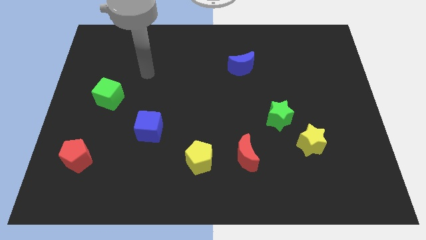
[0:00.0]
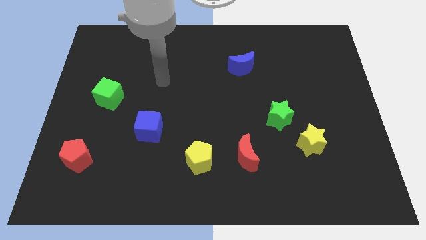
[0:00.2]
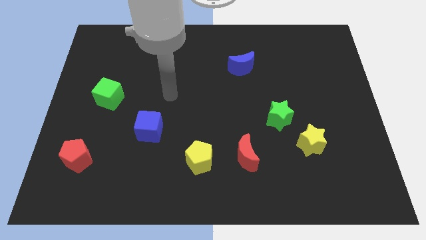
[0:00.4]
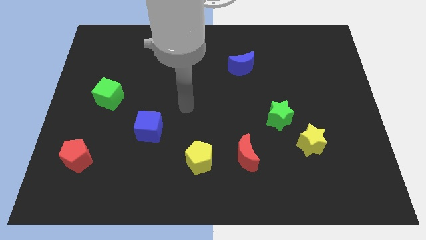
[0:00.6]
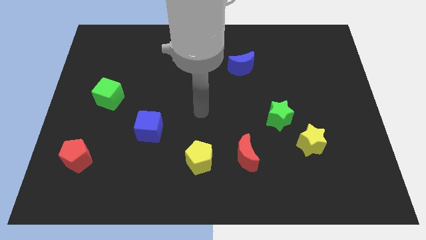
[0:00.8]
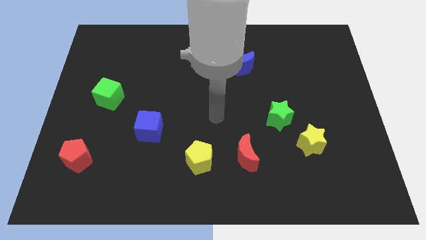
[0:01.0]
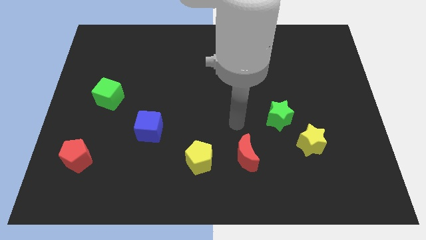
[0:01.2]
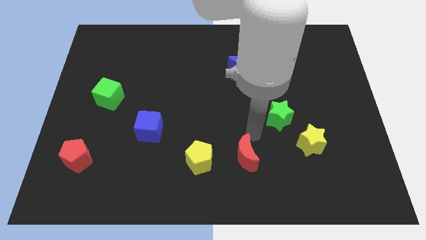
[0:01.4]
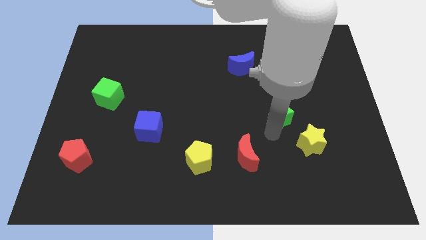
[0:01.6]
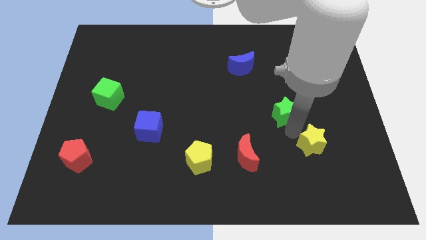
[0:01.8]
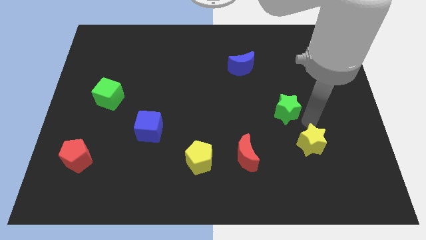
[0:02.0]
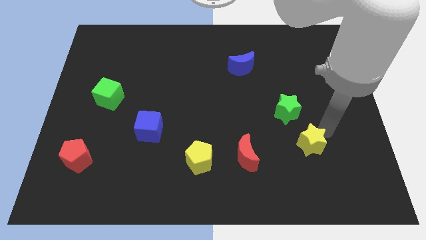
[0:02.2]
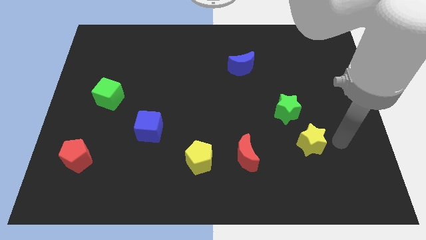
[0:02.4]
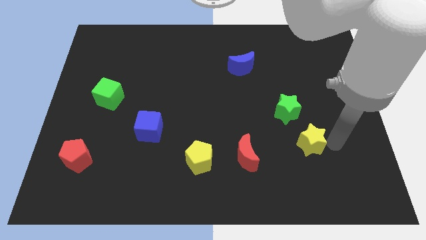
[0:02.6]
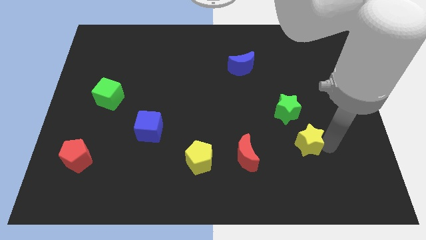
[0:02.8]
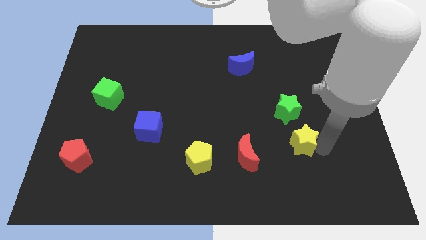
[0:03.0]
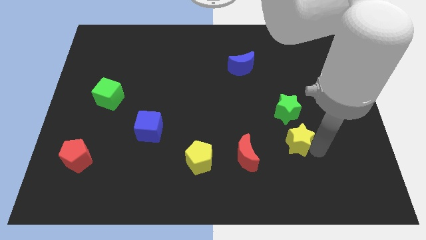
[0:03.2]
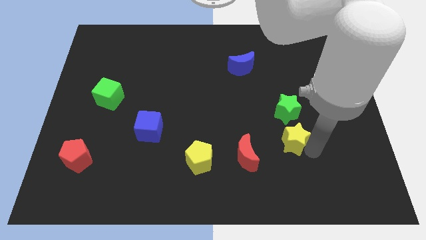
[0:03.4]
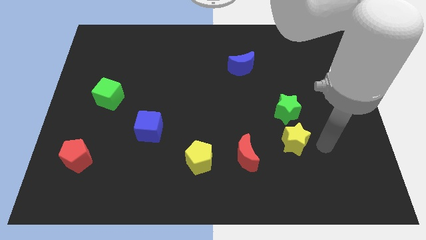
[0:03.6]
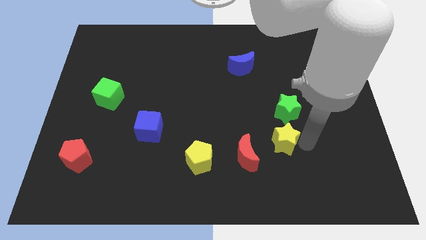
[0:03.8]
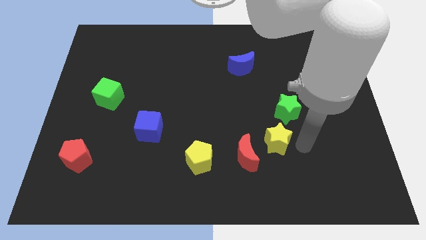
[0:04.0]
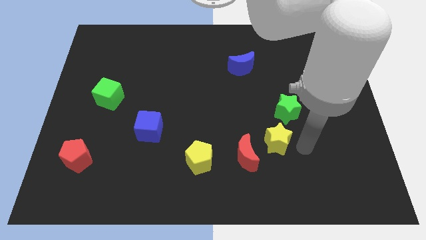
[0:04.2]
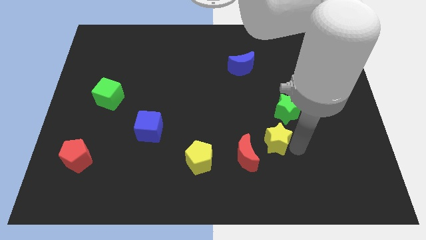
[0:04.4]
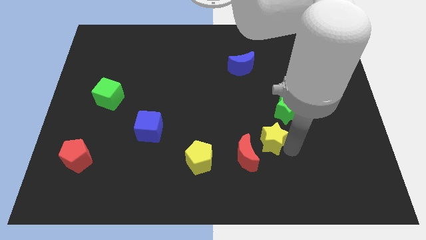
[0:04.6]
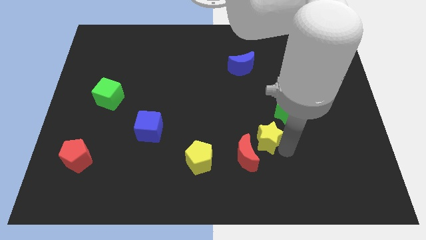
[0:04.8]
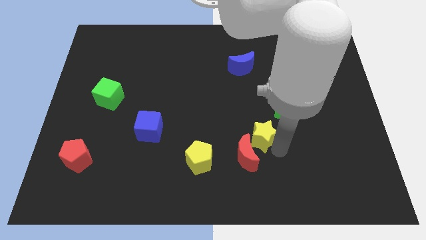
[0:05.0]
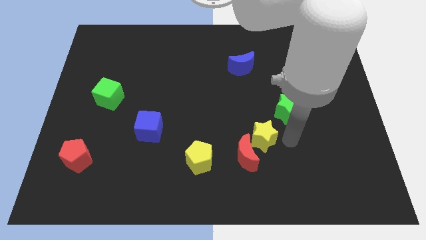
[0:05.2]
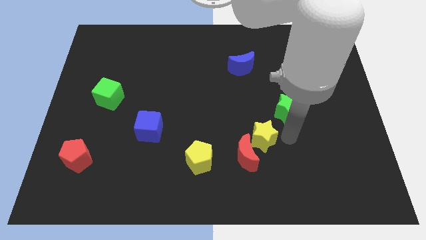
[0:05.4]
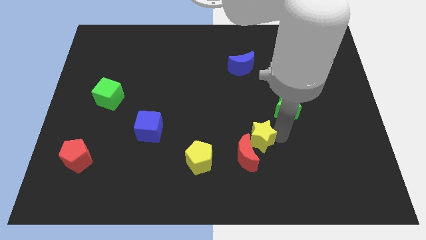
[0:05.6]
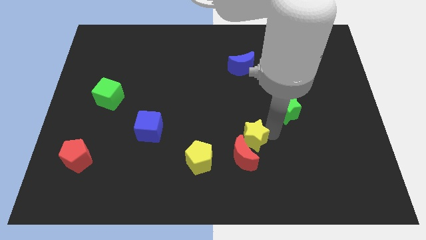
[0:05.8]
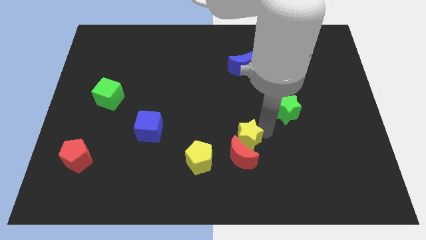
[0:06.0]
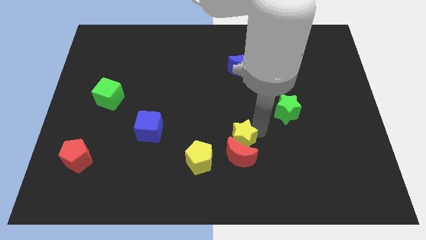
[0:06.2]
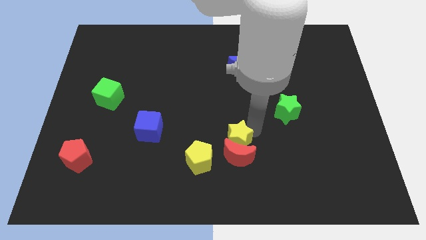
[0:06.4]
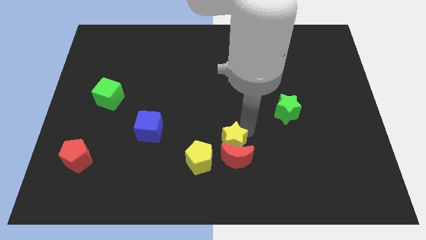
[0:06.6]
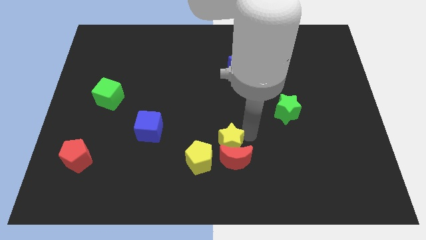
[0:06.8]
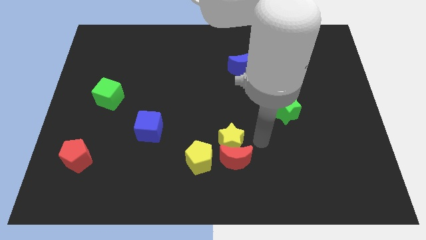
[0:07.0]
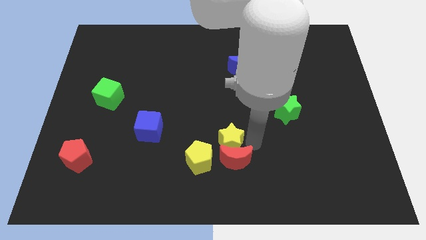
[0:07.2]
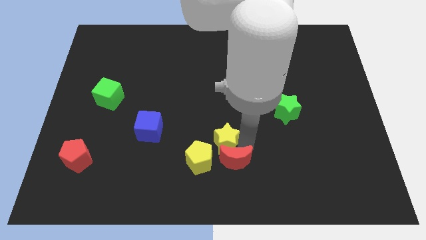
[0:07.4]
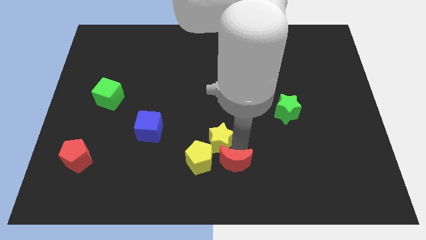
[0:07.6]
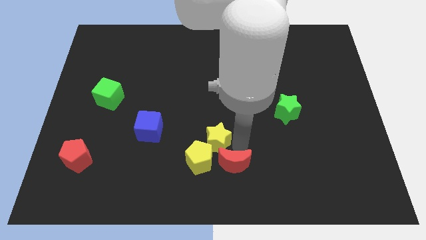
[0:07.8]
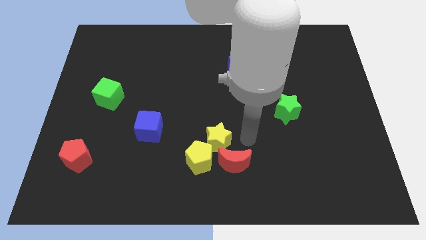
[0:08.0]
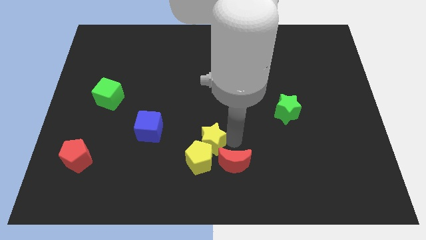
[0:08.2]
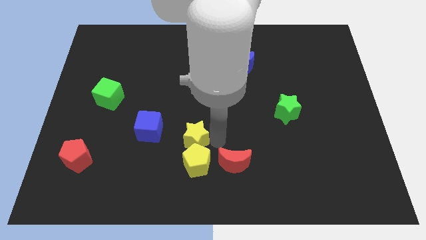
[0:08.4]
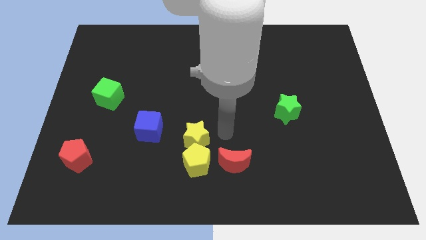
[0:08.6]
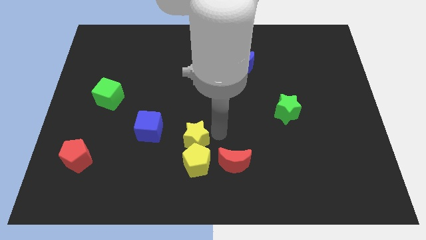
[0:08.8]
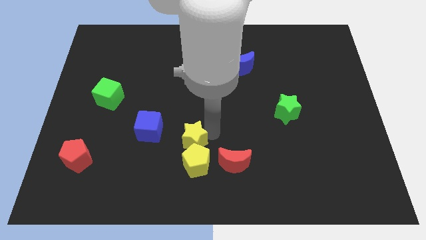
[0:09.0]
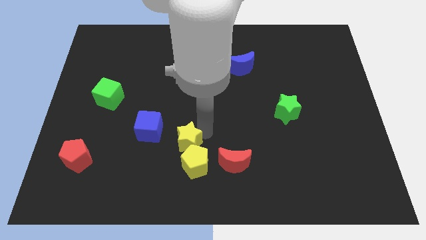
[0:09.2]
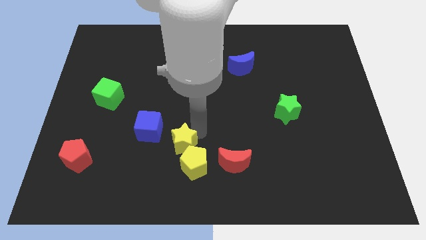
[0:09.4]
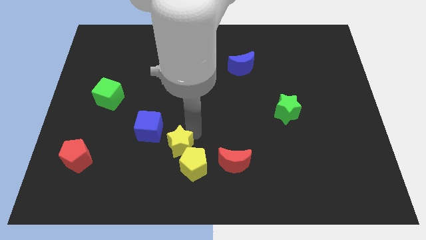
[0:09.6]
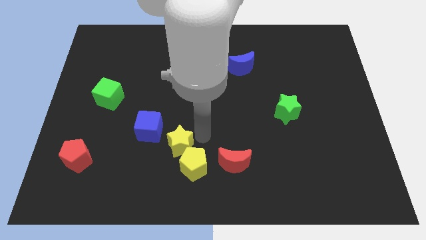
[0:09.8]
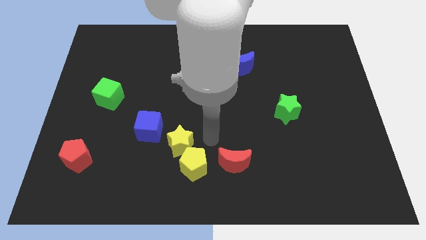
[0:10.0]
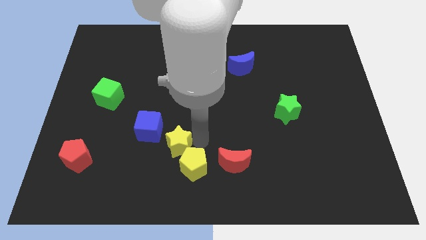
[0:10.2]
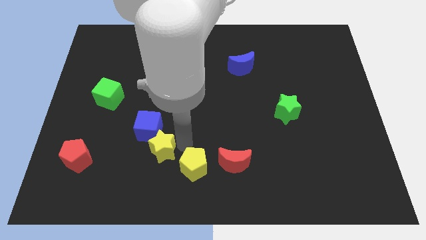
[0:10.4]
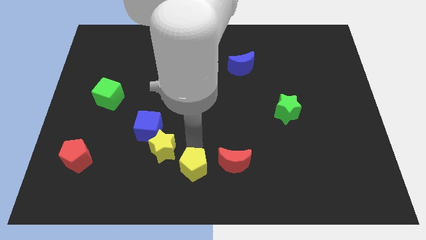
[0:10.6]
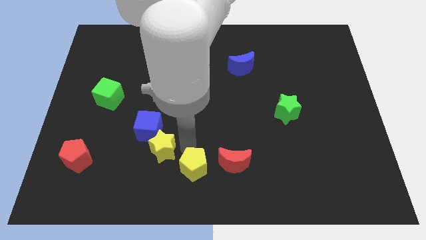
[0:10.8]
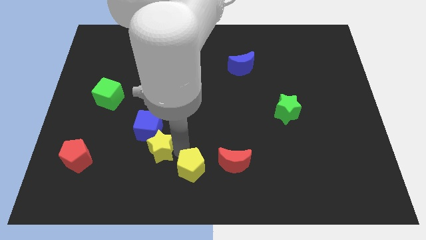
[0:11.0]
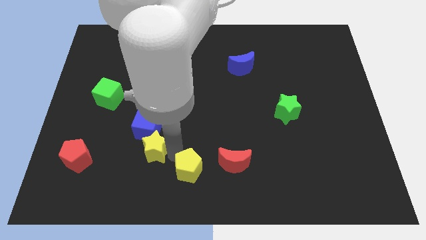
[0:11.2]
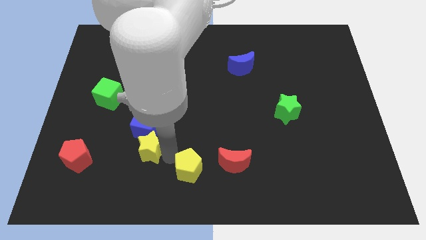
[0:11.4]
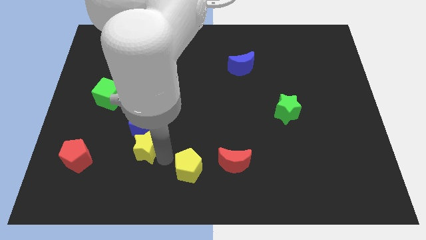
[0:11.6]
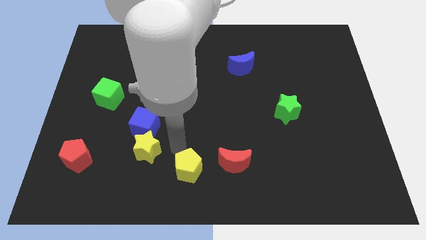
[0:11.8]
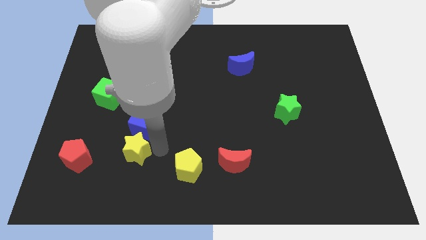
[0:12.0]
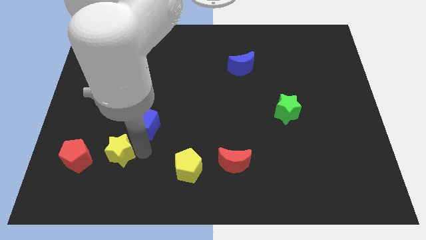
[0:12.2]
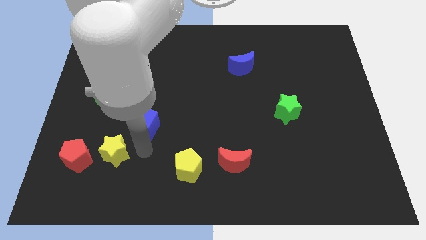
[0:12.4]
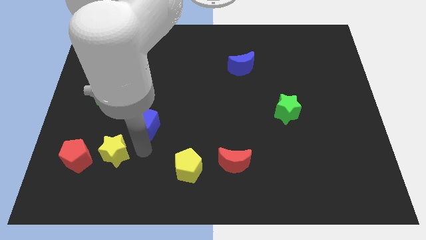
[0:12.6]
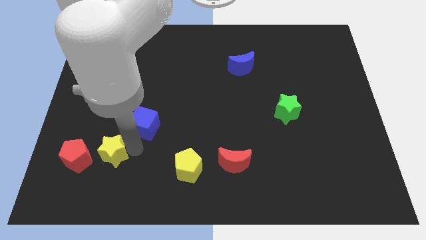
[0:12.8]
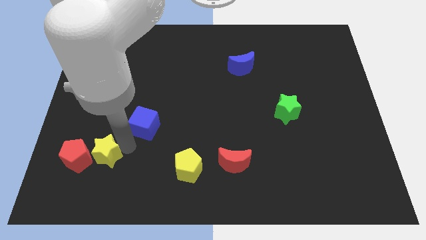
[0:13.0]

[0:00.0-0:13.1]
push the yellow star next to the red pentagon
